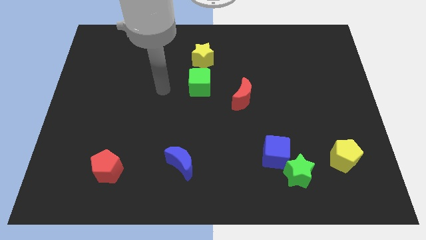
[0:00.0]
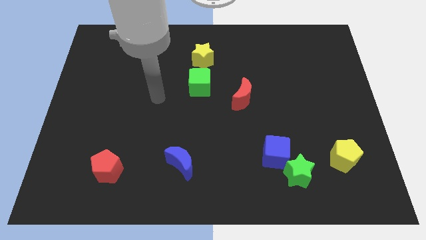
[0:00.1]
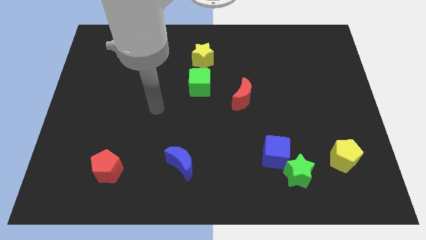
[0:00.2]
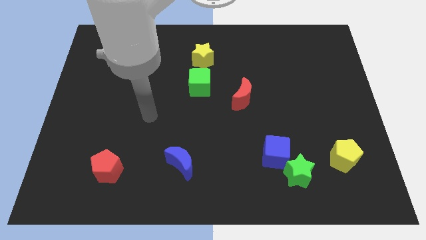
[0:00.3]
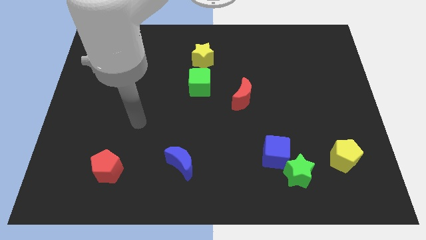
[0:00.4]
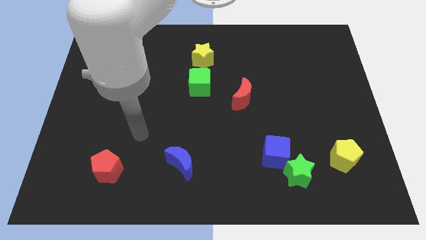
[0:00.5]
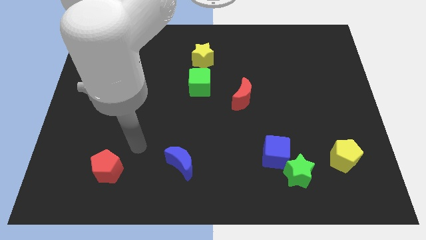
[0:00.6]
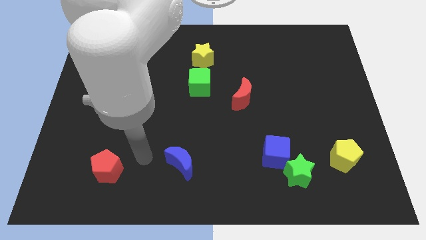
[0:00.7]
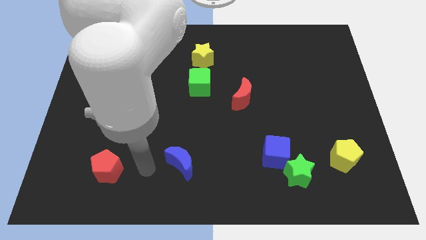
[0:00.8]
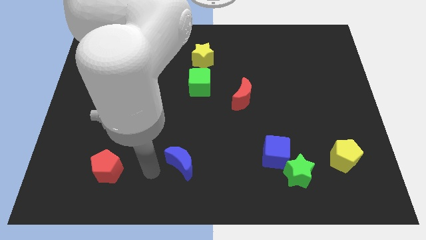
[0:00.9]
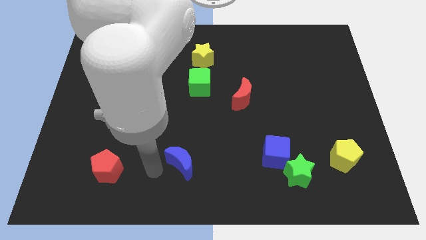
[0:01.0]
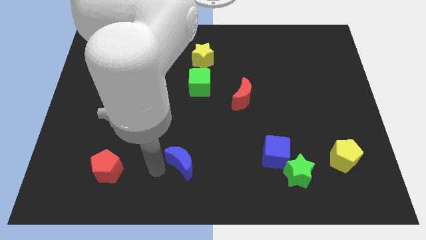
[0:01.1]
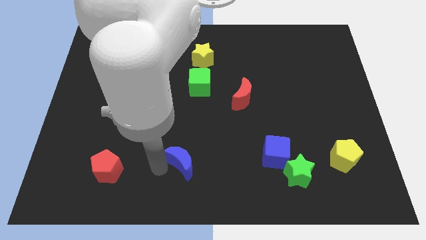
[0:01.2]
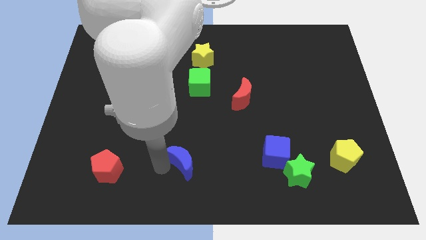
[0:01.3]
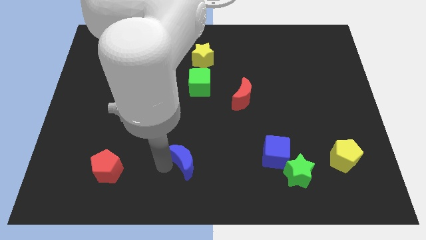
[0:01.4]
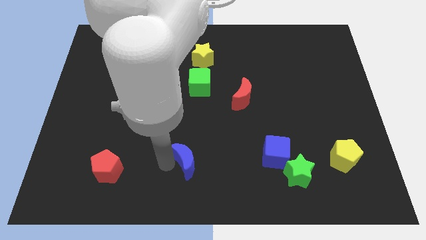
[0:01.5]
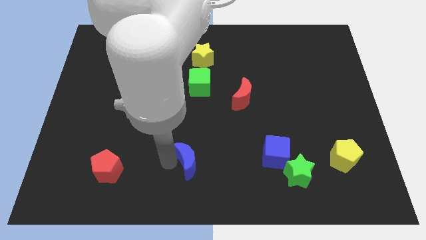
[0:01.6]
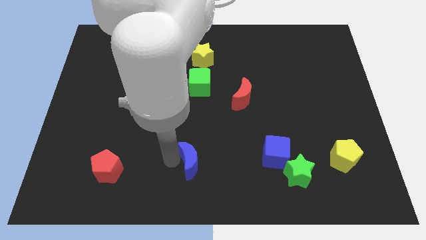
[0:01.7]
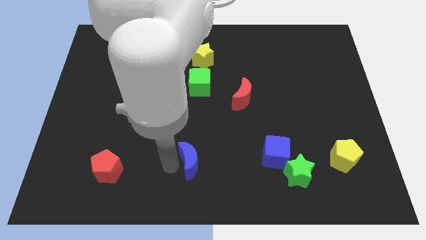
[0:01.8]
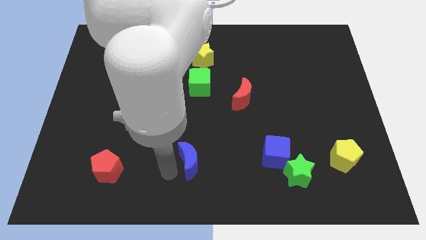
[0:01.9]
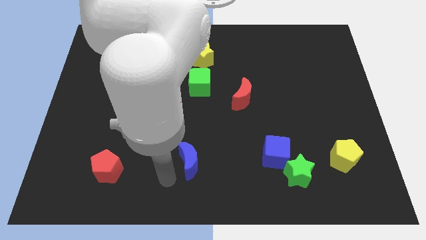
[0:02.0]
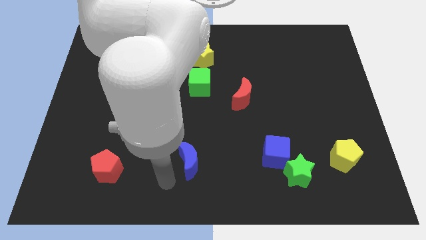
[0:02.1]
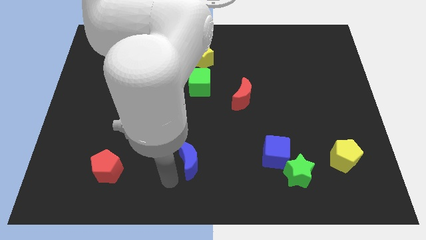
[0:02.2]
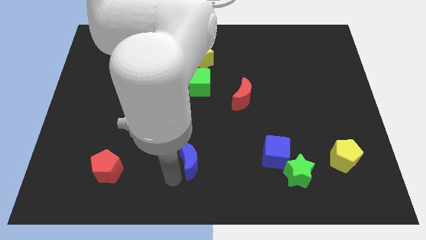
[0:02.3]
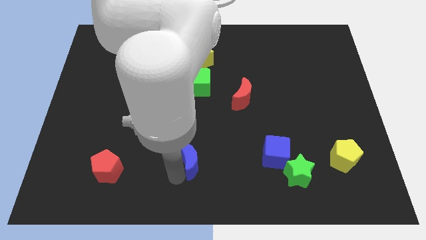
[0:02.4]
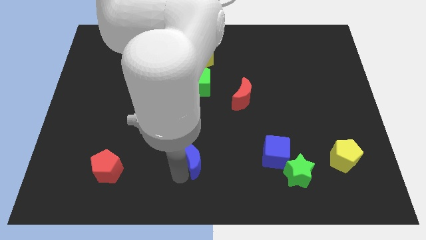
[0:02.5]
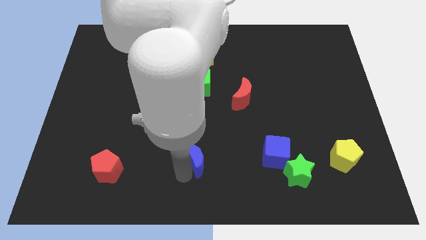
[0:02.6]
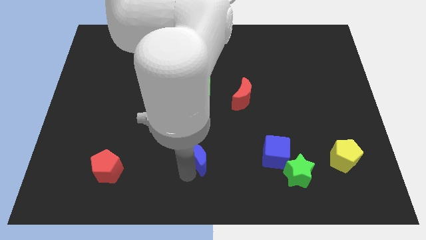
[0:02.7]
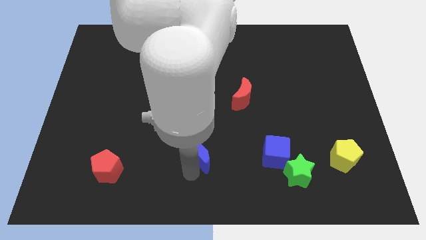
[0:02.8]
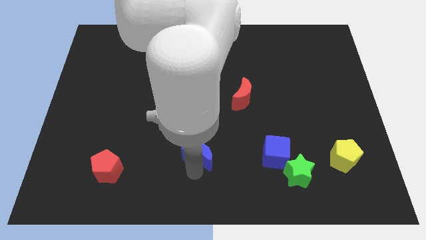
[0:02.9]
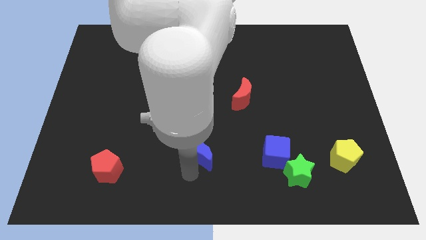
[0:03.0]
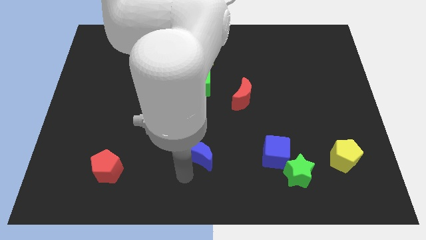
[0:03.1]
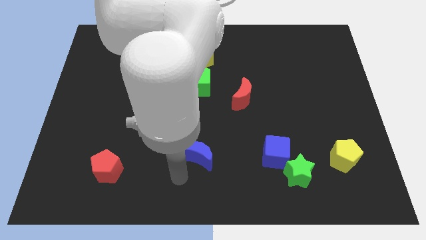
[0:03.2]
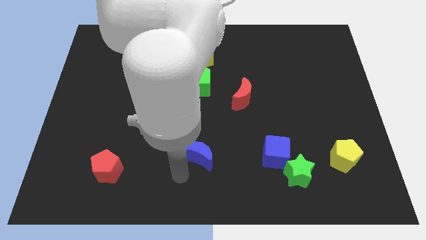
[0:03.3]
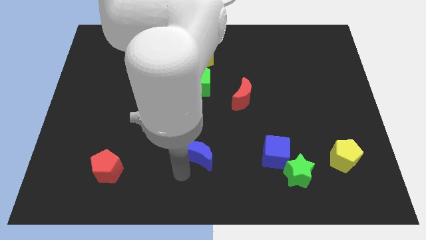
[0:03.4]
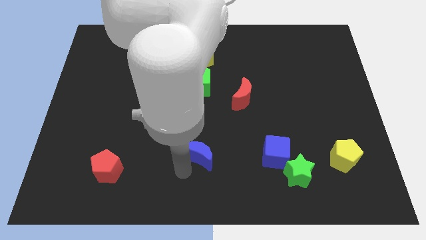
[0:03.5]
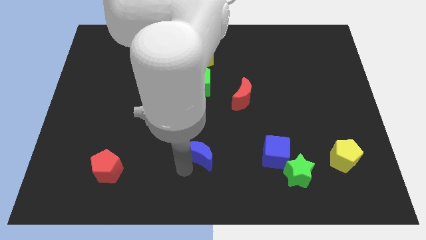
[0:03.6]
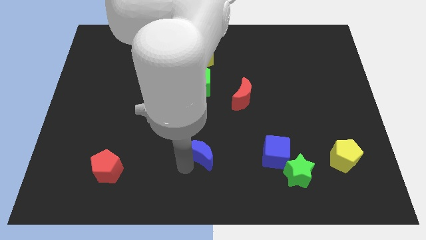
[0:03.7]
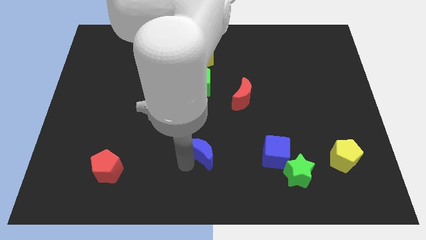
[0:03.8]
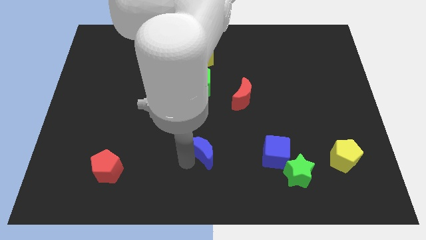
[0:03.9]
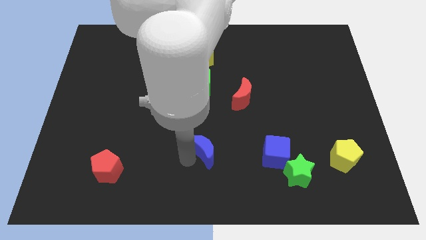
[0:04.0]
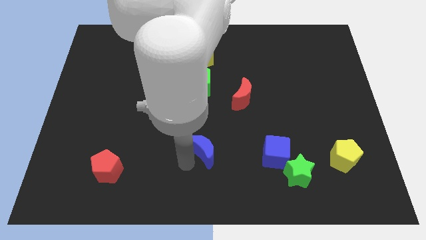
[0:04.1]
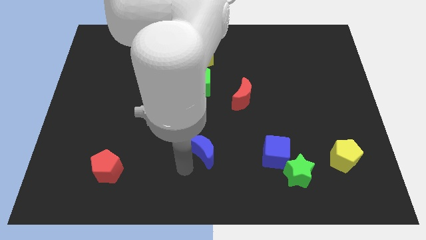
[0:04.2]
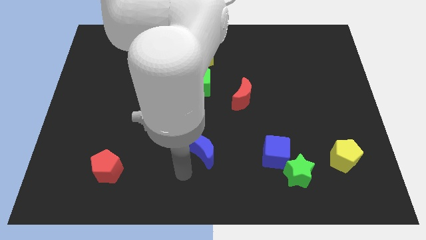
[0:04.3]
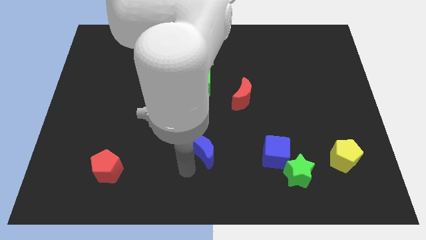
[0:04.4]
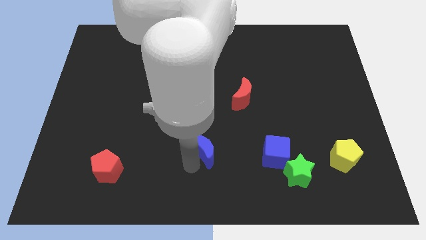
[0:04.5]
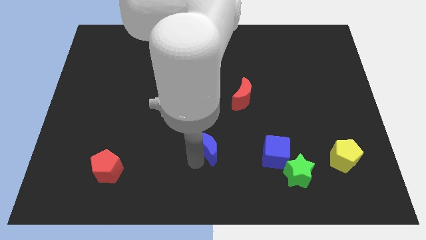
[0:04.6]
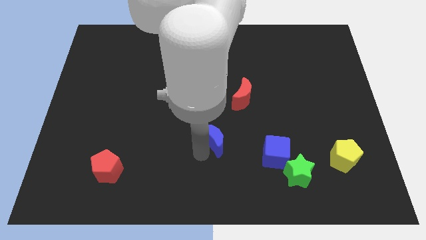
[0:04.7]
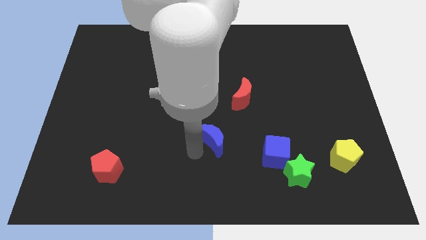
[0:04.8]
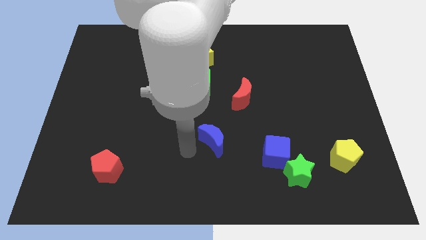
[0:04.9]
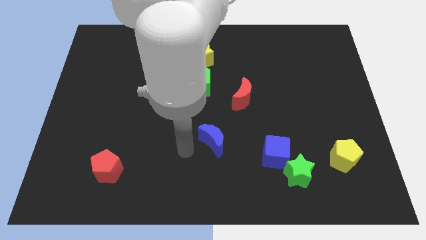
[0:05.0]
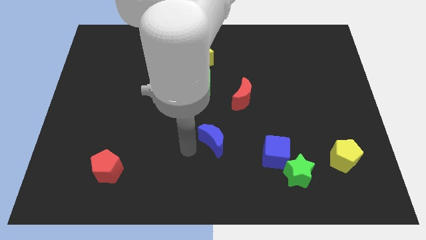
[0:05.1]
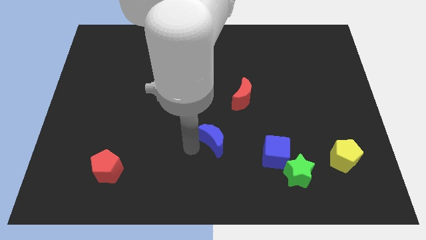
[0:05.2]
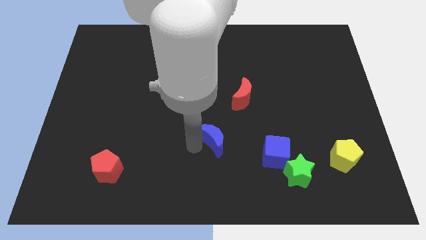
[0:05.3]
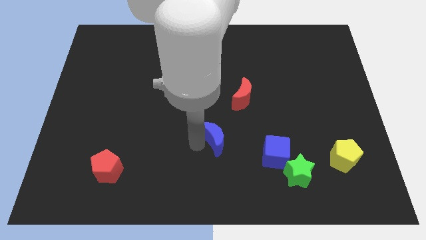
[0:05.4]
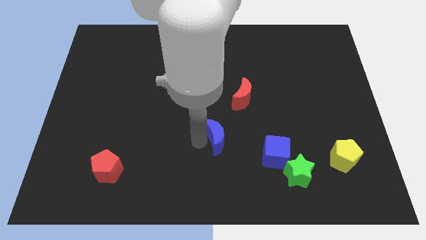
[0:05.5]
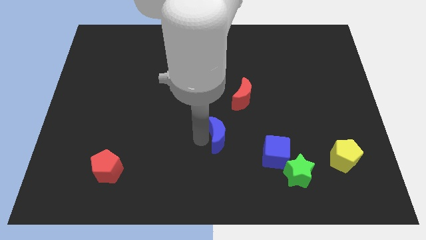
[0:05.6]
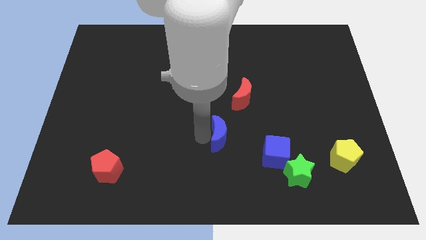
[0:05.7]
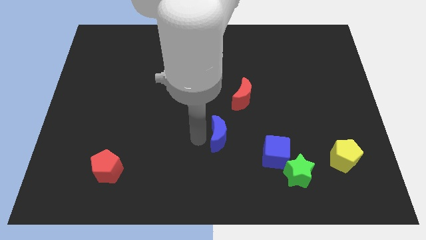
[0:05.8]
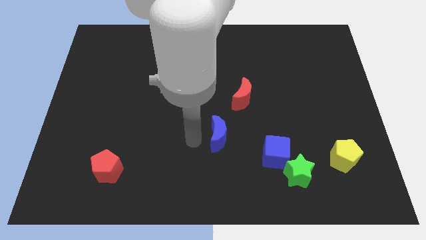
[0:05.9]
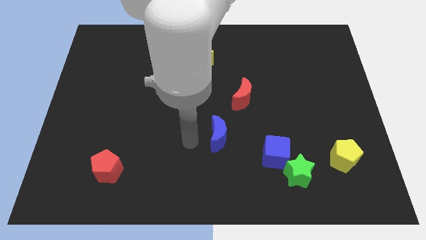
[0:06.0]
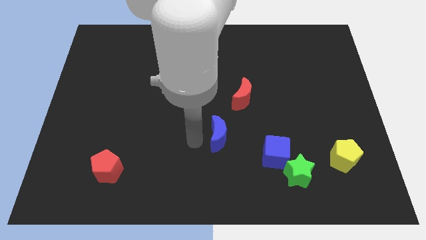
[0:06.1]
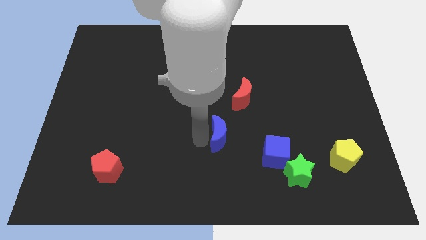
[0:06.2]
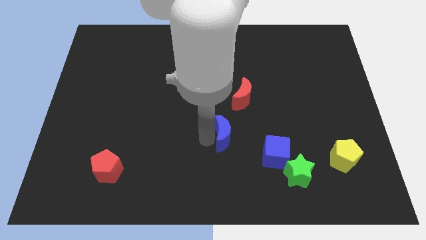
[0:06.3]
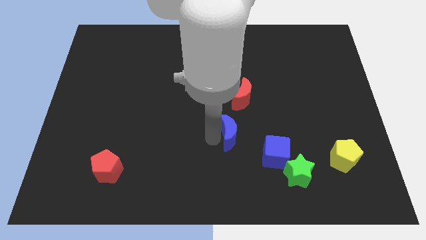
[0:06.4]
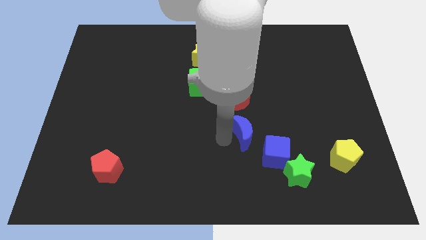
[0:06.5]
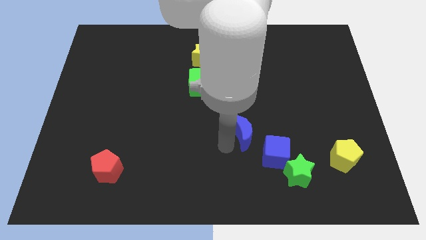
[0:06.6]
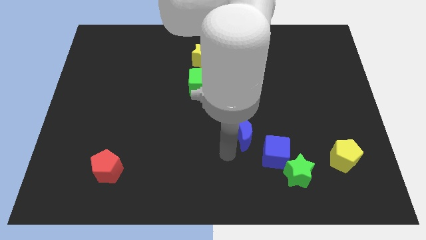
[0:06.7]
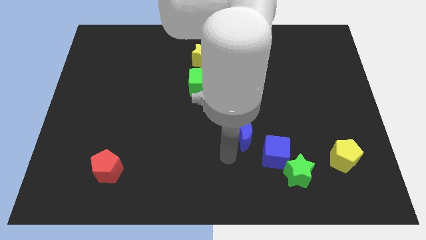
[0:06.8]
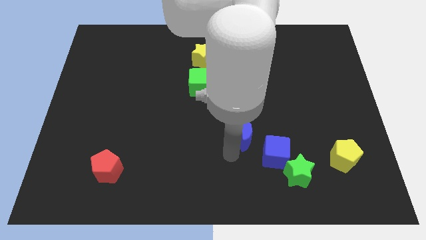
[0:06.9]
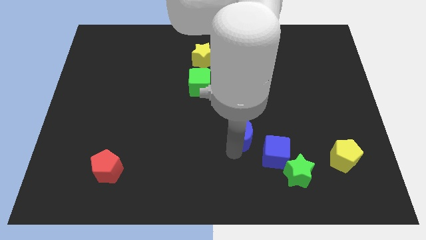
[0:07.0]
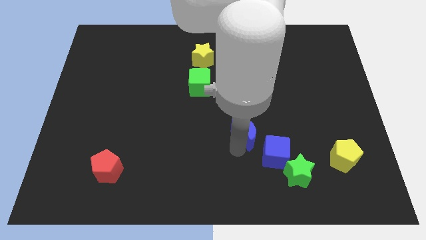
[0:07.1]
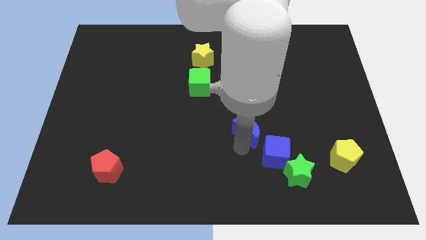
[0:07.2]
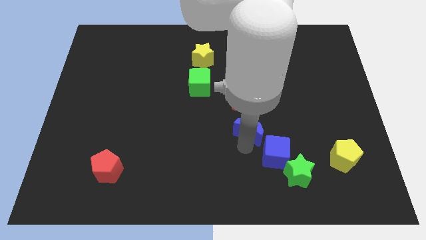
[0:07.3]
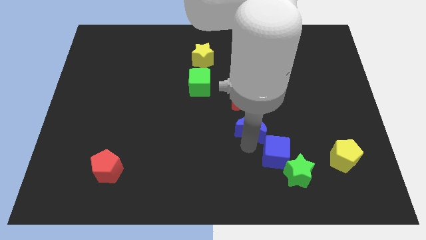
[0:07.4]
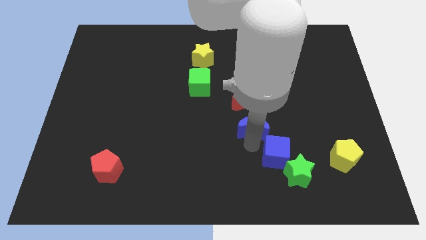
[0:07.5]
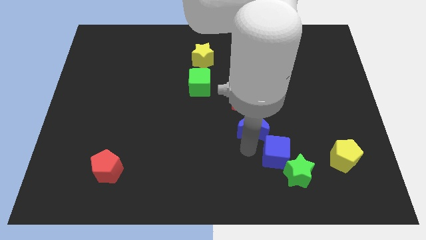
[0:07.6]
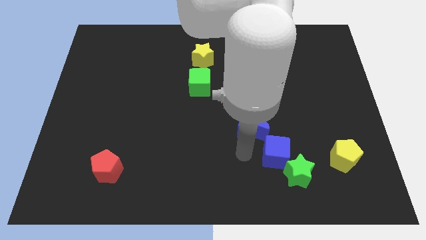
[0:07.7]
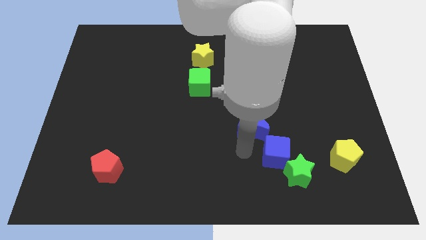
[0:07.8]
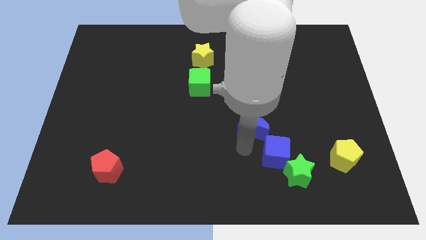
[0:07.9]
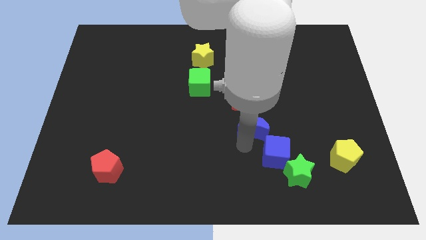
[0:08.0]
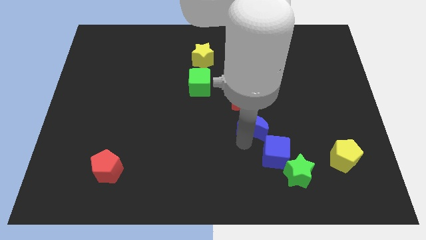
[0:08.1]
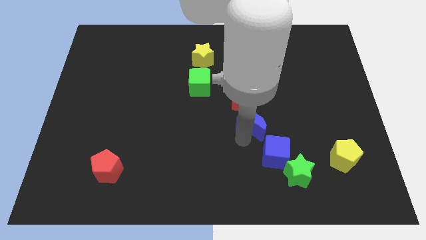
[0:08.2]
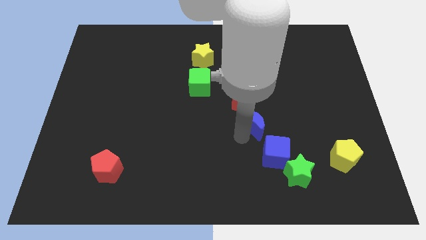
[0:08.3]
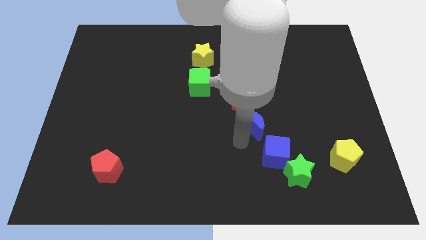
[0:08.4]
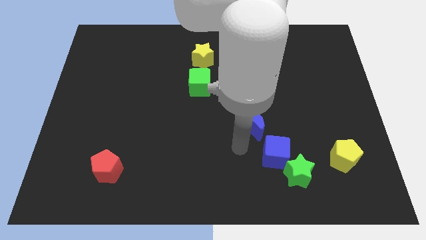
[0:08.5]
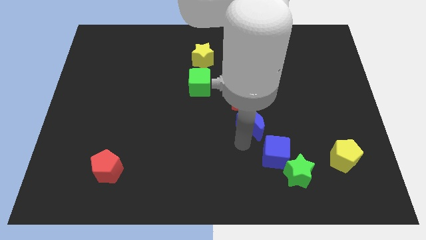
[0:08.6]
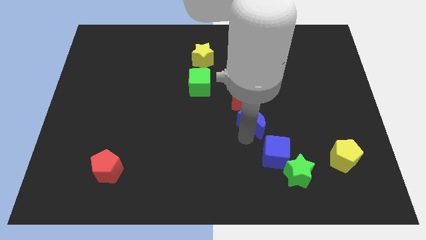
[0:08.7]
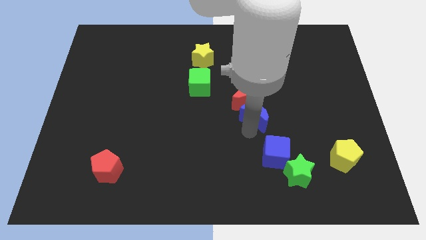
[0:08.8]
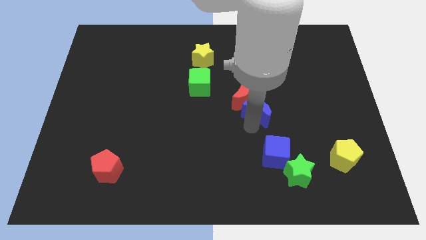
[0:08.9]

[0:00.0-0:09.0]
move the blue moon diagonally up and to the right
